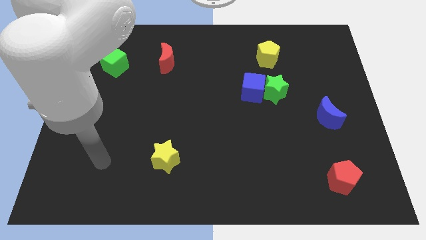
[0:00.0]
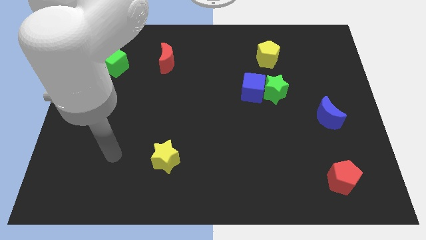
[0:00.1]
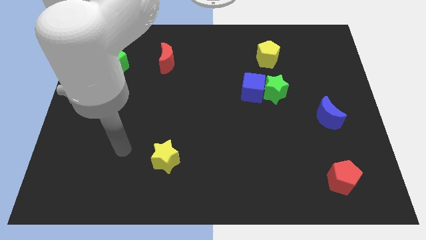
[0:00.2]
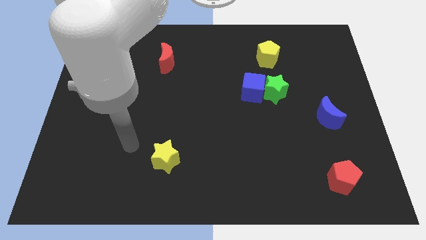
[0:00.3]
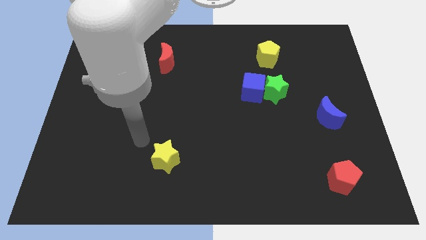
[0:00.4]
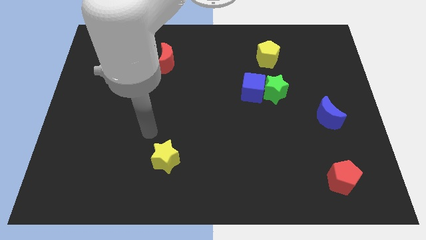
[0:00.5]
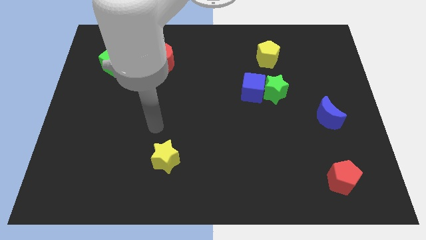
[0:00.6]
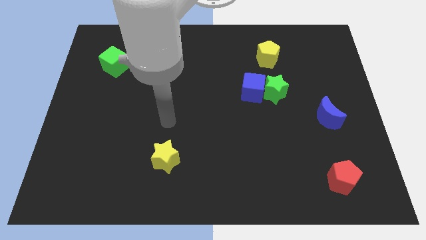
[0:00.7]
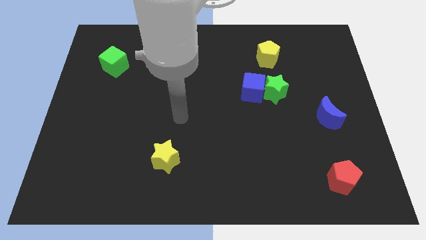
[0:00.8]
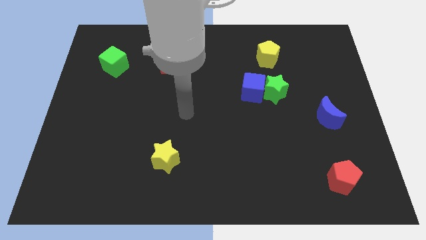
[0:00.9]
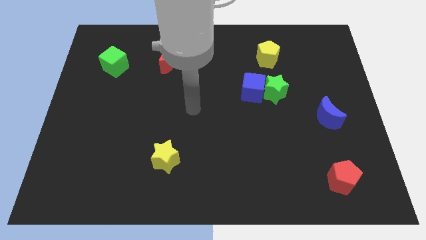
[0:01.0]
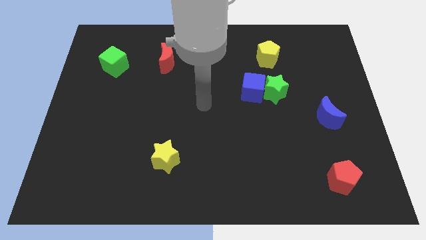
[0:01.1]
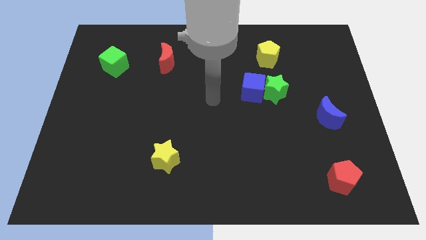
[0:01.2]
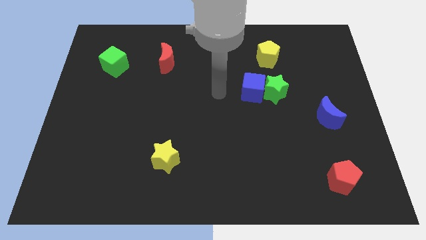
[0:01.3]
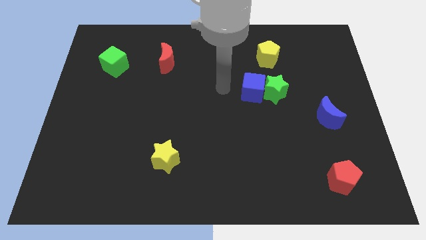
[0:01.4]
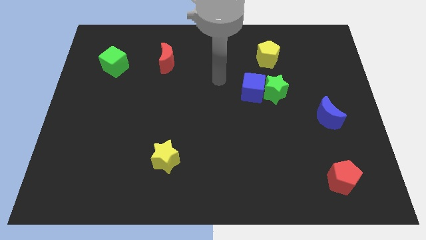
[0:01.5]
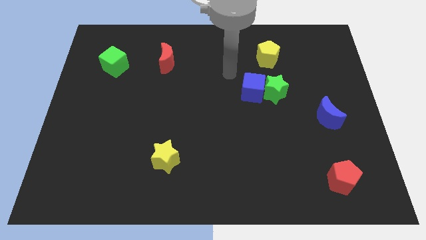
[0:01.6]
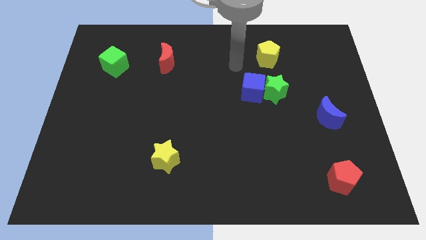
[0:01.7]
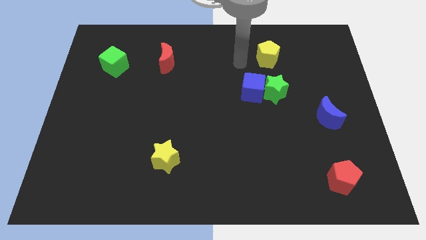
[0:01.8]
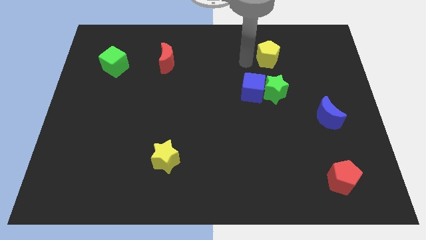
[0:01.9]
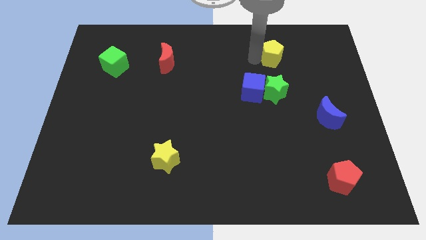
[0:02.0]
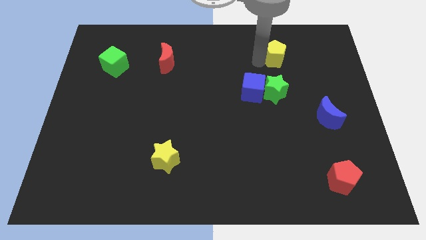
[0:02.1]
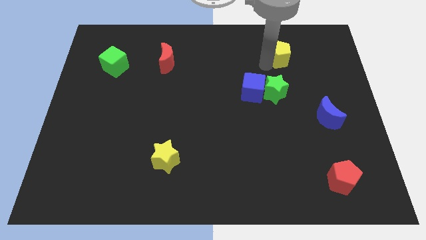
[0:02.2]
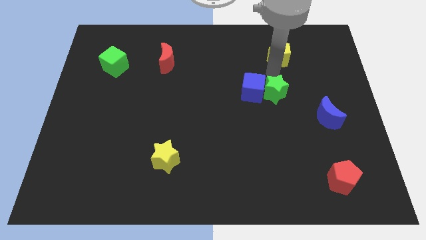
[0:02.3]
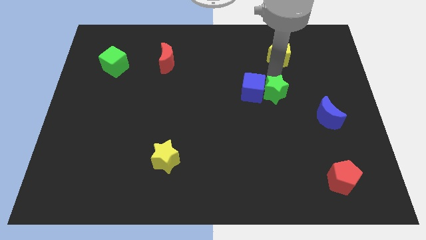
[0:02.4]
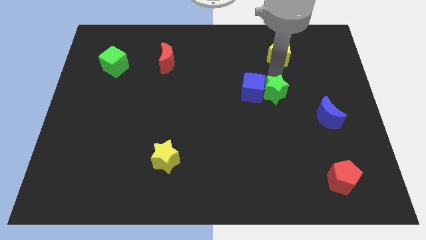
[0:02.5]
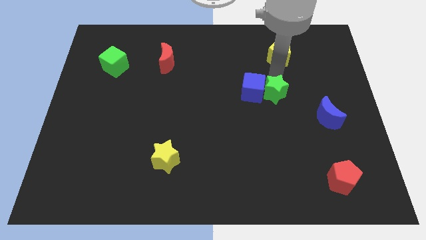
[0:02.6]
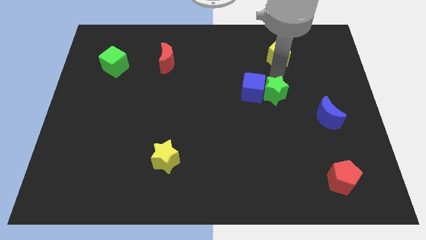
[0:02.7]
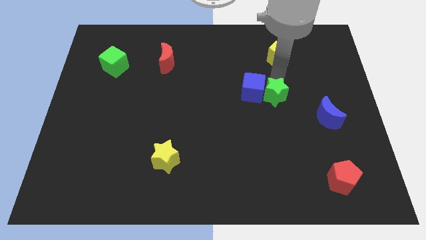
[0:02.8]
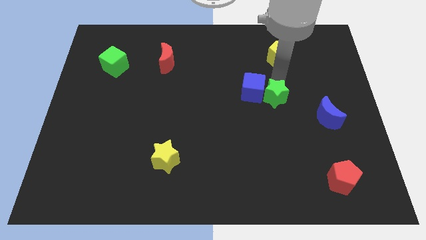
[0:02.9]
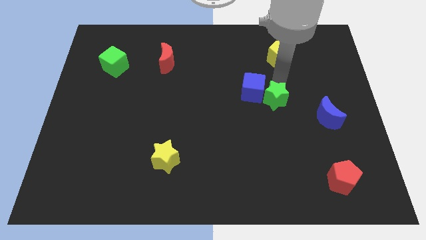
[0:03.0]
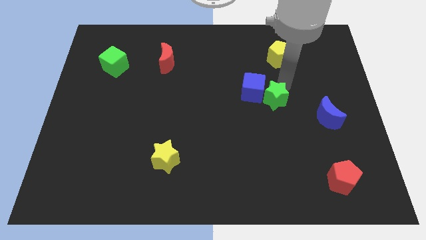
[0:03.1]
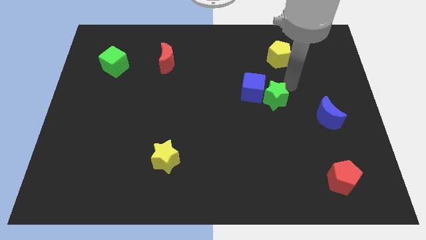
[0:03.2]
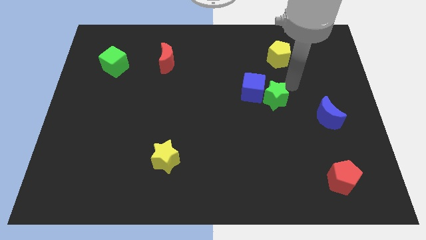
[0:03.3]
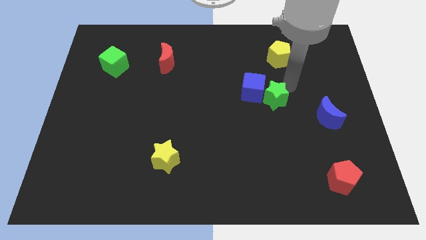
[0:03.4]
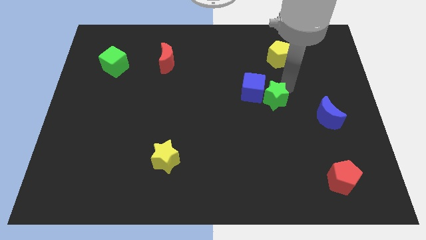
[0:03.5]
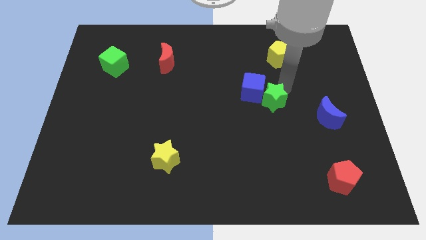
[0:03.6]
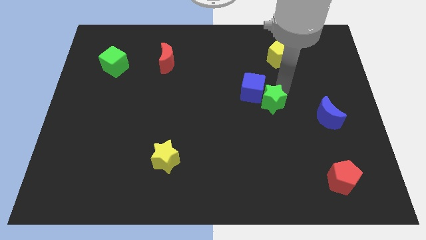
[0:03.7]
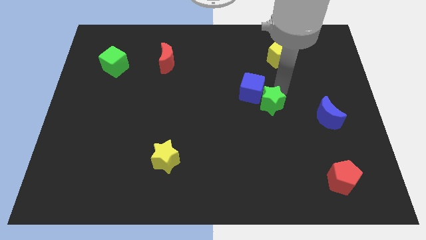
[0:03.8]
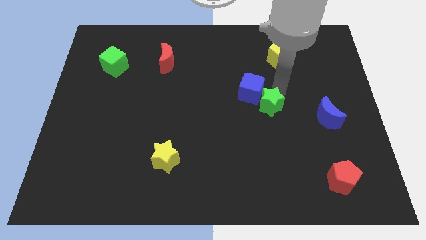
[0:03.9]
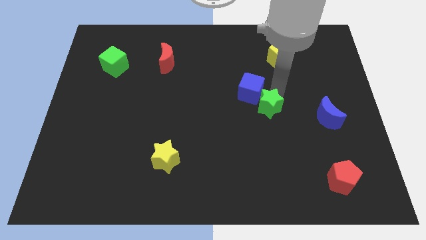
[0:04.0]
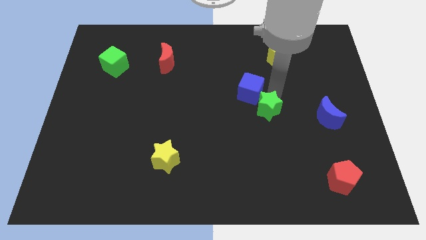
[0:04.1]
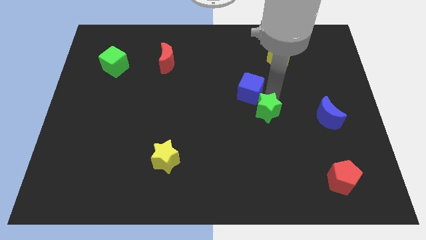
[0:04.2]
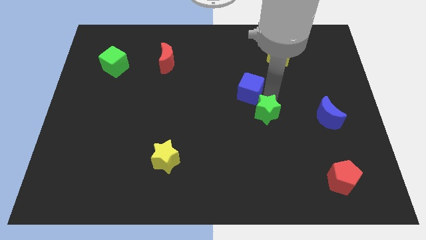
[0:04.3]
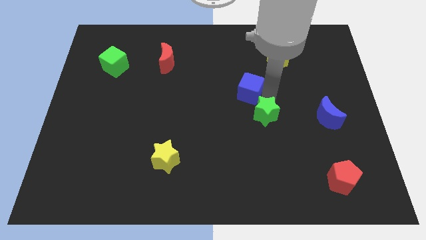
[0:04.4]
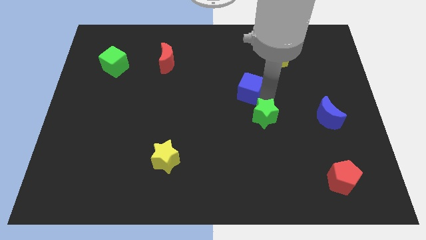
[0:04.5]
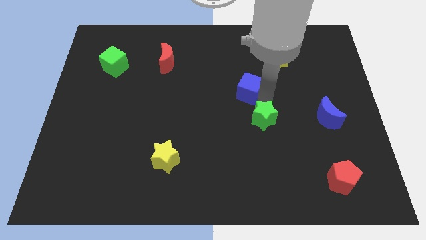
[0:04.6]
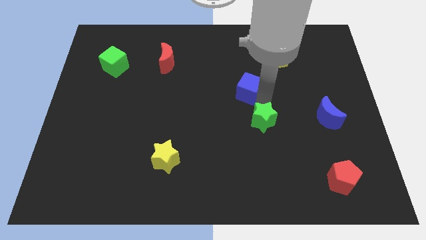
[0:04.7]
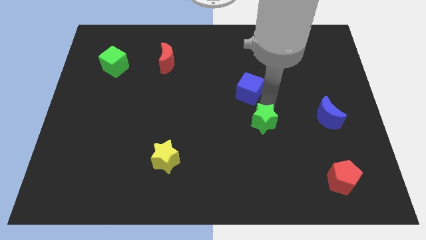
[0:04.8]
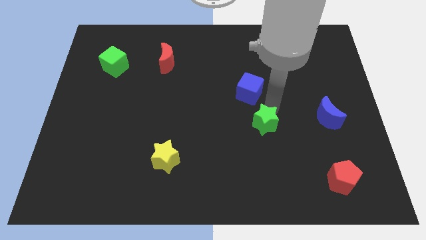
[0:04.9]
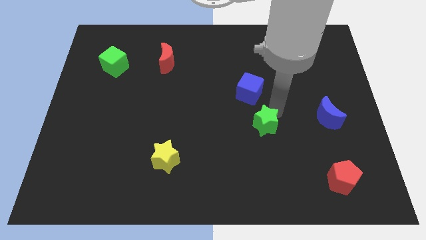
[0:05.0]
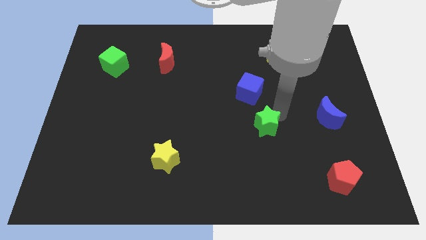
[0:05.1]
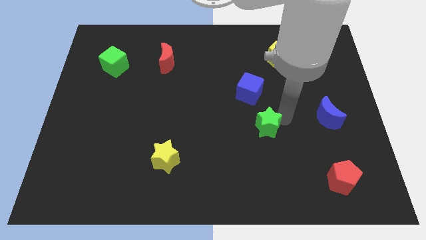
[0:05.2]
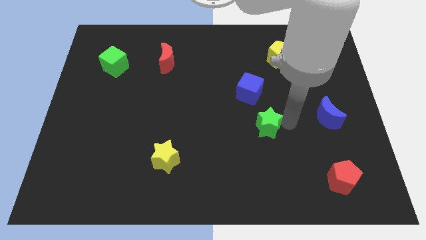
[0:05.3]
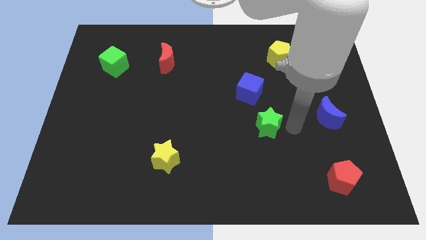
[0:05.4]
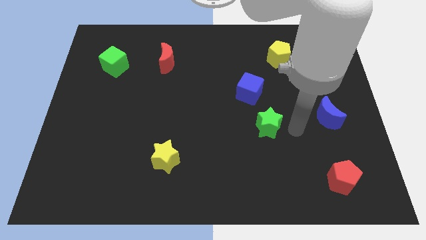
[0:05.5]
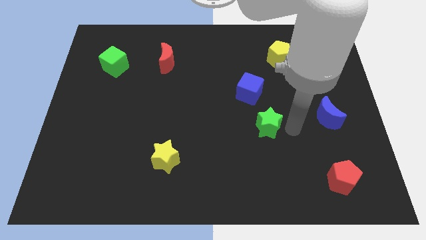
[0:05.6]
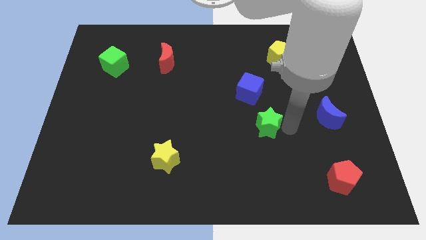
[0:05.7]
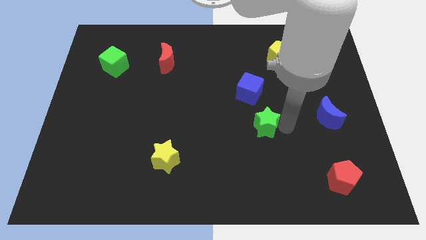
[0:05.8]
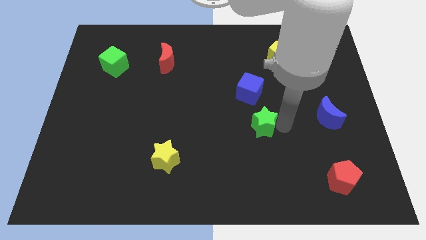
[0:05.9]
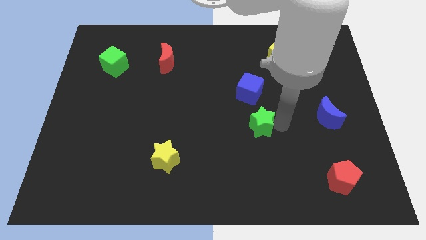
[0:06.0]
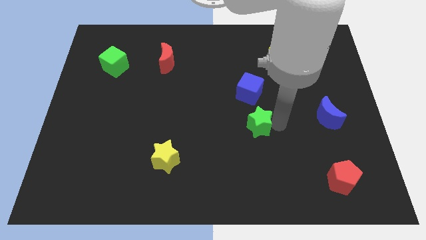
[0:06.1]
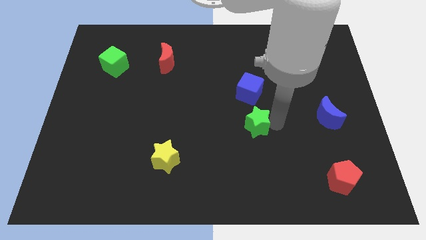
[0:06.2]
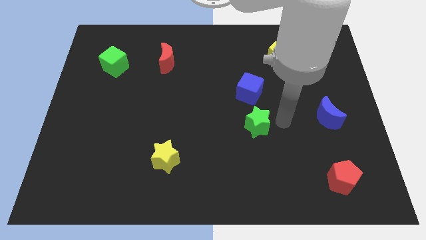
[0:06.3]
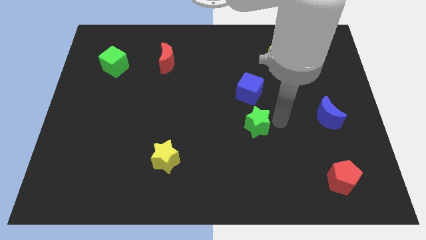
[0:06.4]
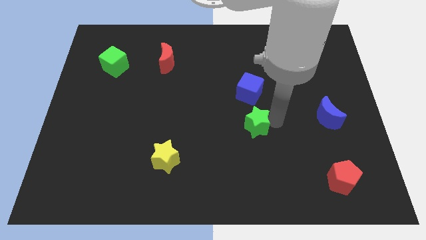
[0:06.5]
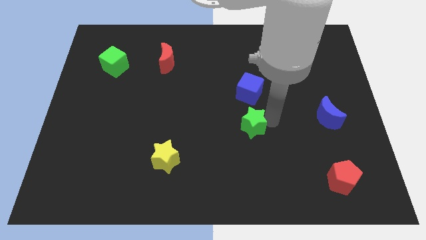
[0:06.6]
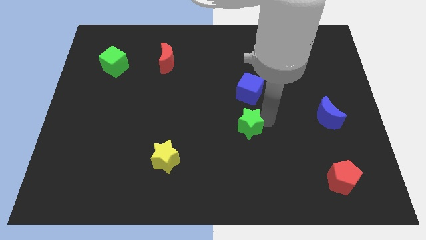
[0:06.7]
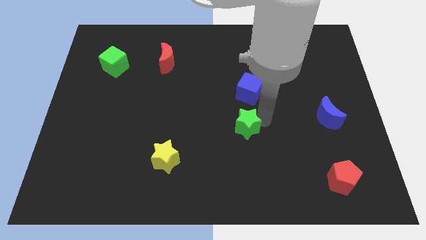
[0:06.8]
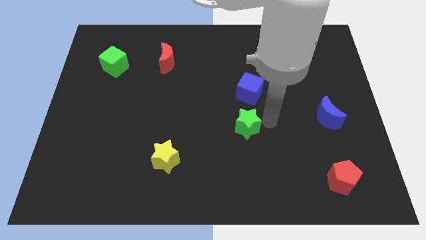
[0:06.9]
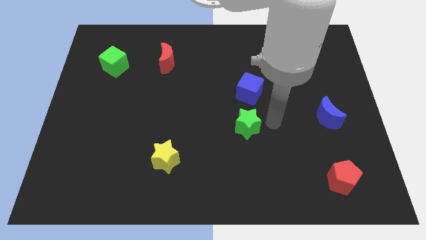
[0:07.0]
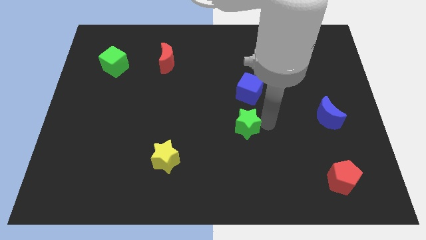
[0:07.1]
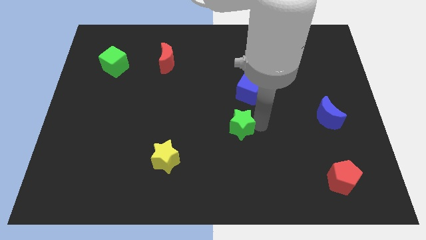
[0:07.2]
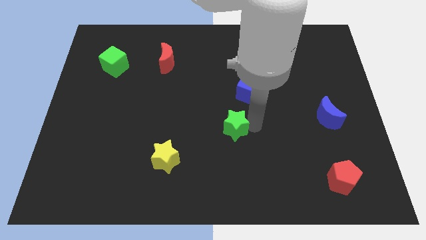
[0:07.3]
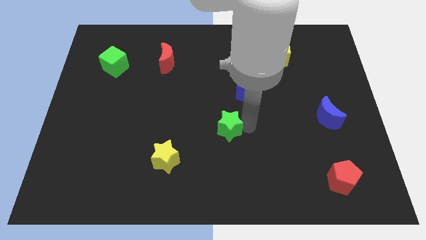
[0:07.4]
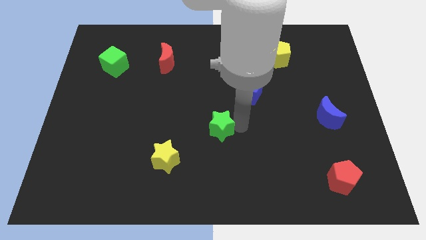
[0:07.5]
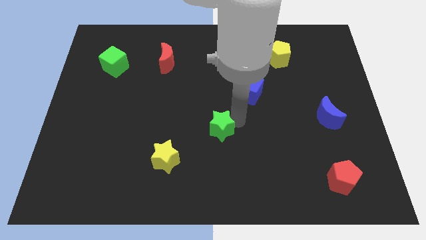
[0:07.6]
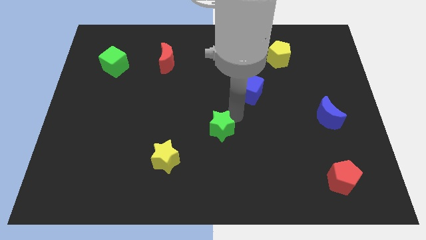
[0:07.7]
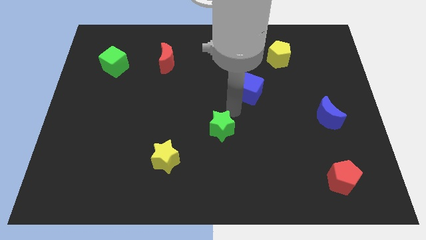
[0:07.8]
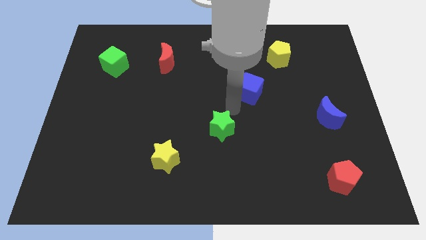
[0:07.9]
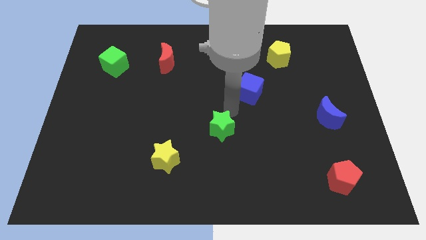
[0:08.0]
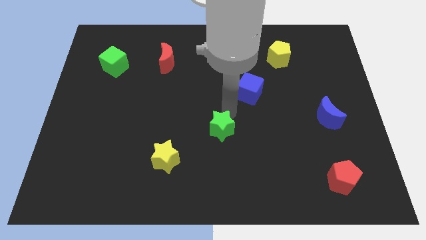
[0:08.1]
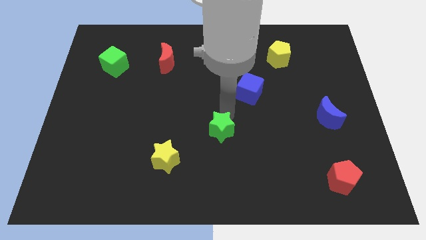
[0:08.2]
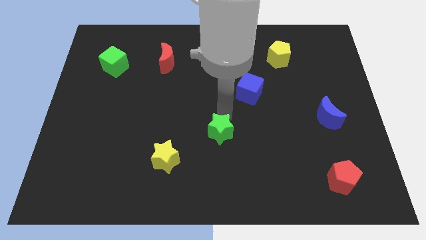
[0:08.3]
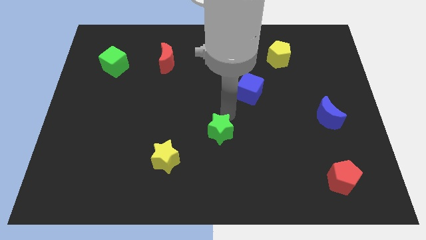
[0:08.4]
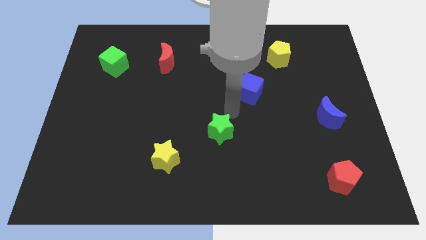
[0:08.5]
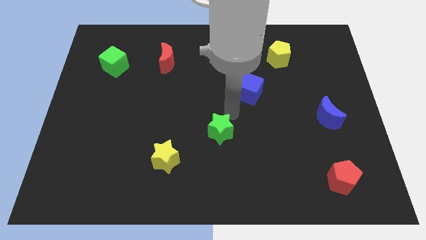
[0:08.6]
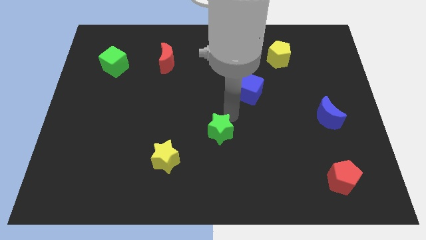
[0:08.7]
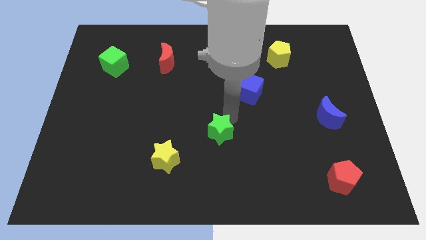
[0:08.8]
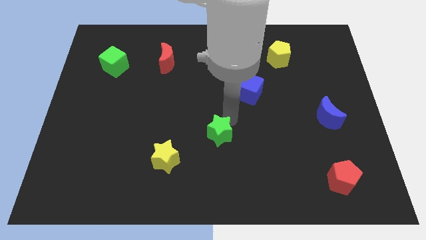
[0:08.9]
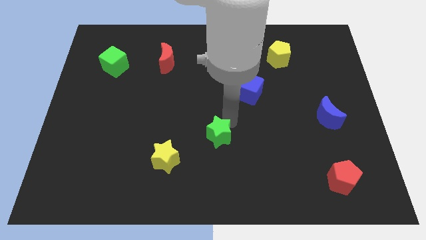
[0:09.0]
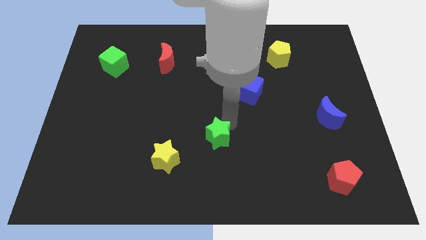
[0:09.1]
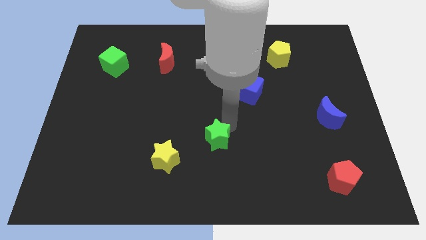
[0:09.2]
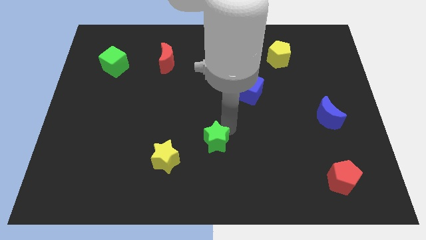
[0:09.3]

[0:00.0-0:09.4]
slide the green star down and left diagonally
